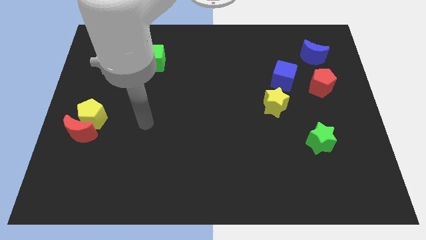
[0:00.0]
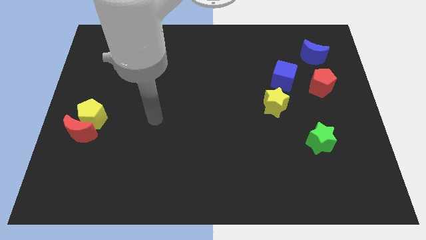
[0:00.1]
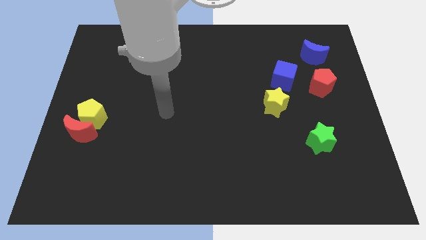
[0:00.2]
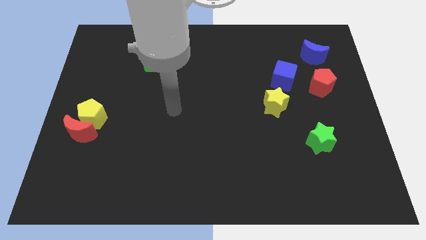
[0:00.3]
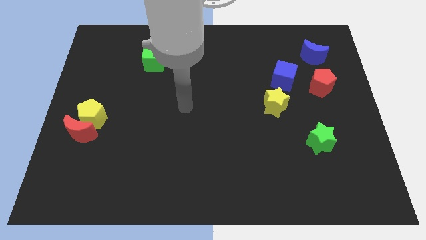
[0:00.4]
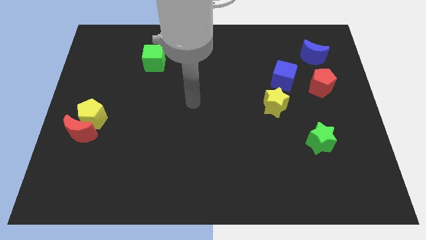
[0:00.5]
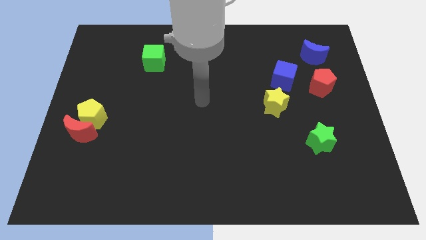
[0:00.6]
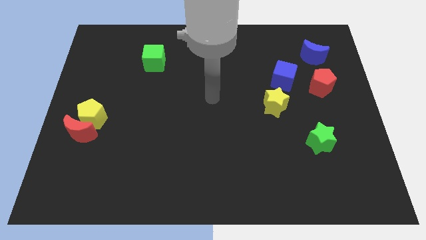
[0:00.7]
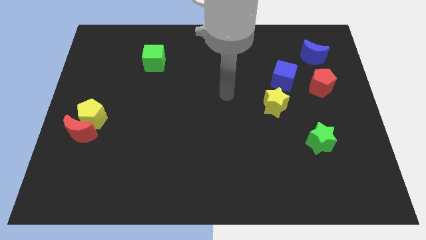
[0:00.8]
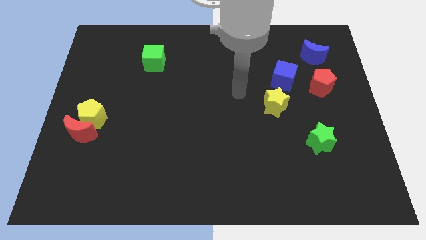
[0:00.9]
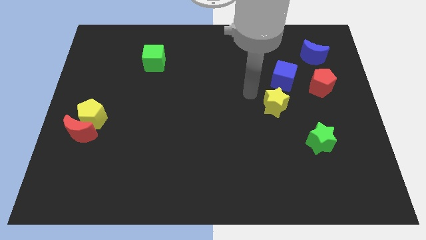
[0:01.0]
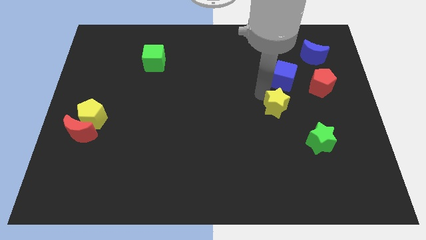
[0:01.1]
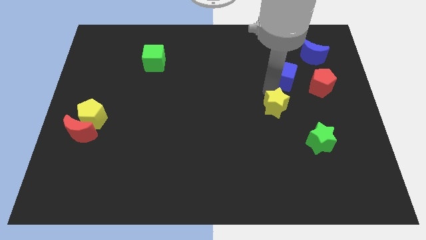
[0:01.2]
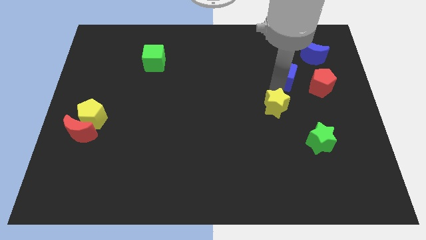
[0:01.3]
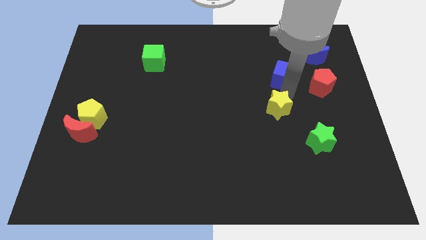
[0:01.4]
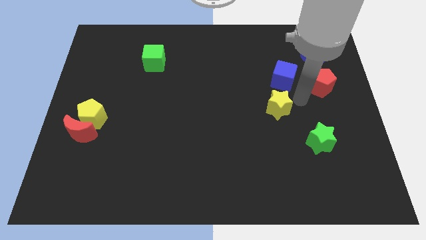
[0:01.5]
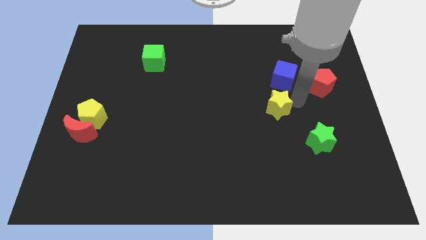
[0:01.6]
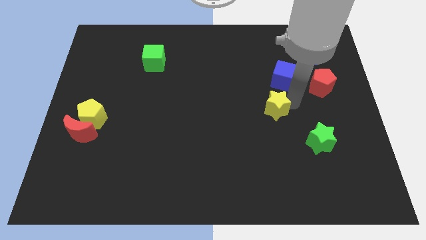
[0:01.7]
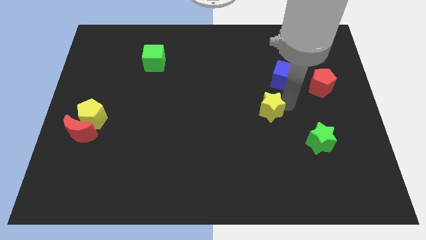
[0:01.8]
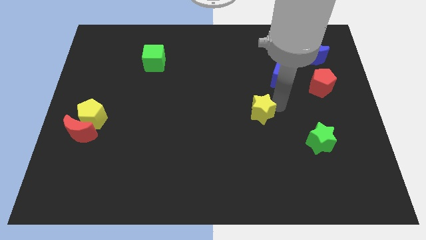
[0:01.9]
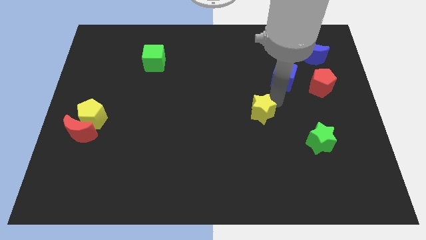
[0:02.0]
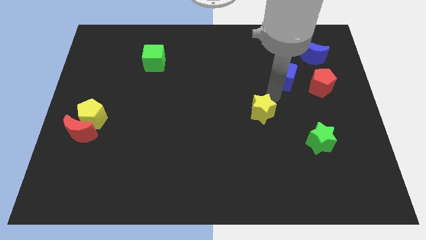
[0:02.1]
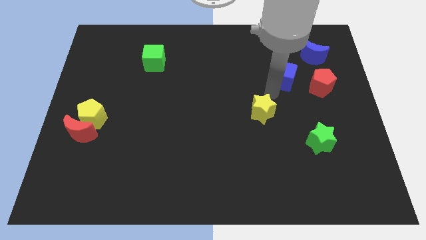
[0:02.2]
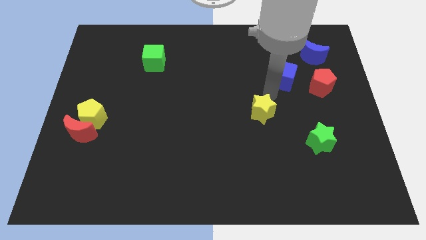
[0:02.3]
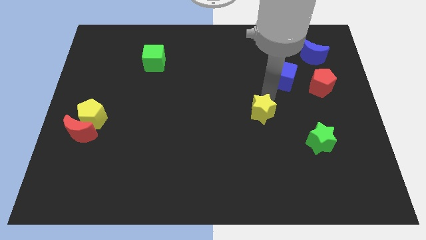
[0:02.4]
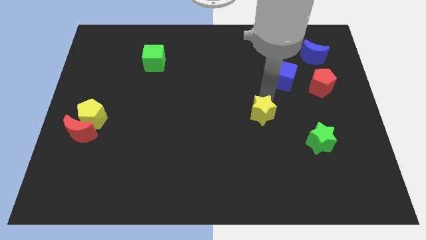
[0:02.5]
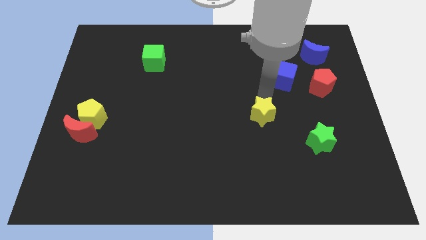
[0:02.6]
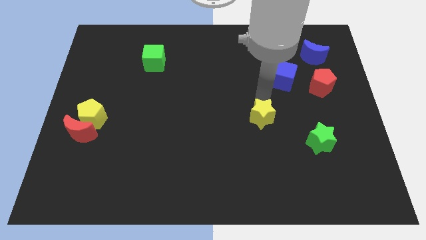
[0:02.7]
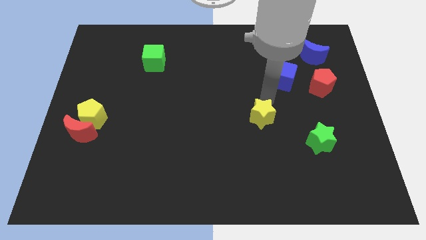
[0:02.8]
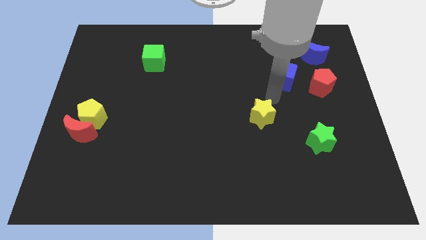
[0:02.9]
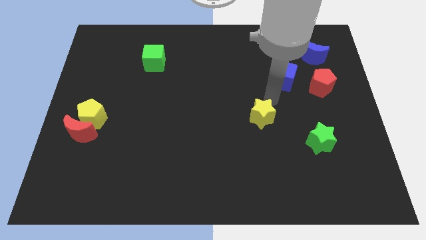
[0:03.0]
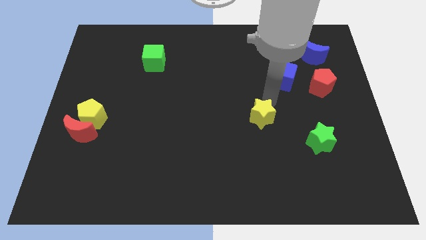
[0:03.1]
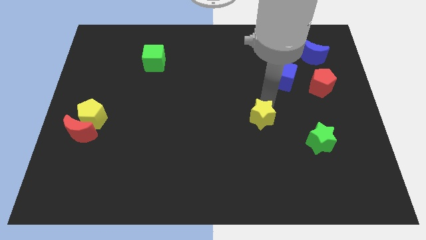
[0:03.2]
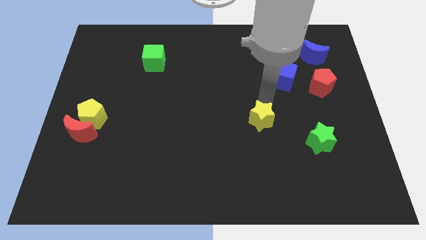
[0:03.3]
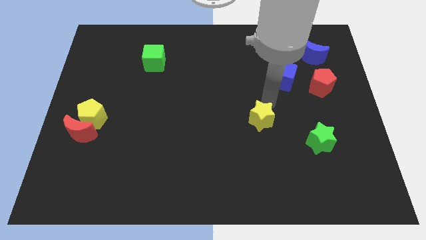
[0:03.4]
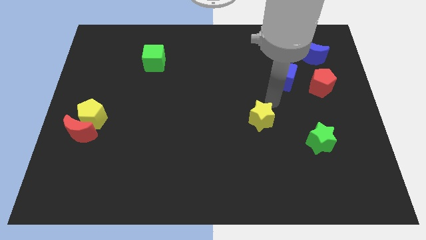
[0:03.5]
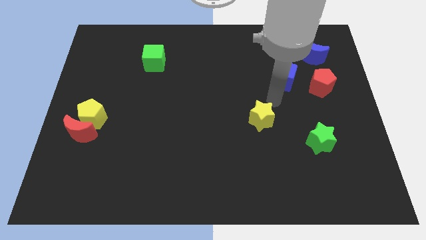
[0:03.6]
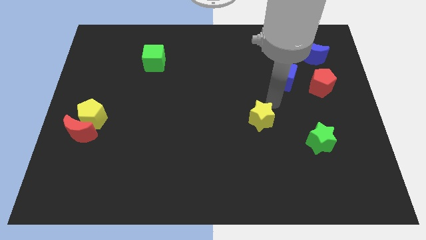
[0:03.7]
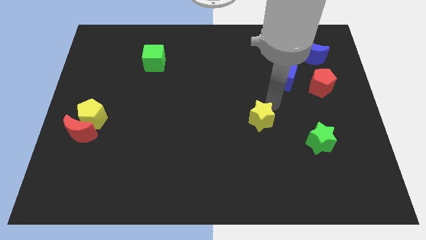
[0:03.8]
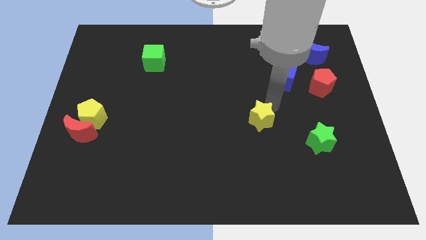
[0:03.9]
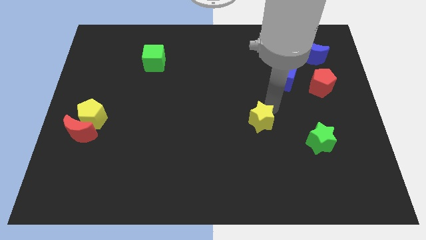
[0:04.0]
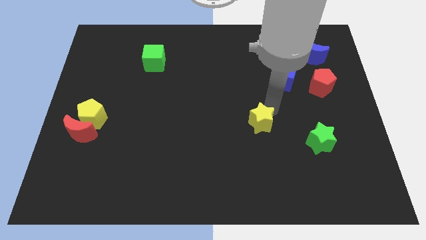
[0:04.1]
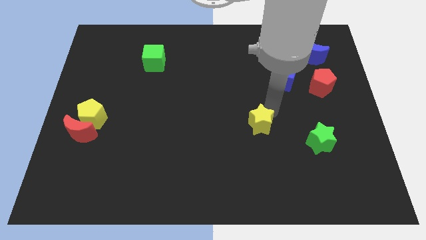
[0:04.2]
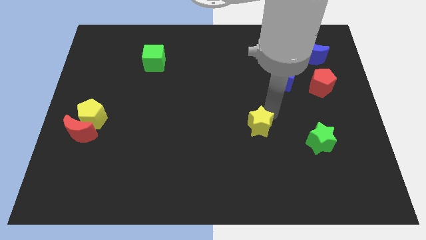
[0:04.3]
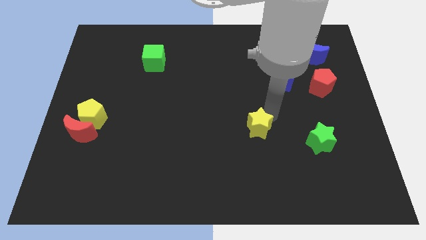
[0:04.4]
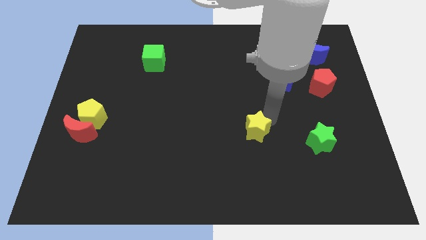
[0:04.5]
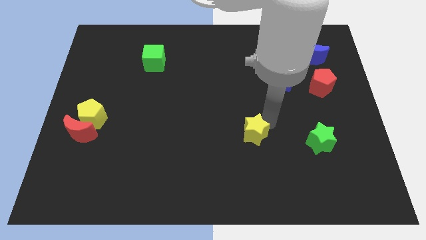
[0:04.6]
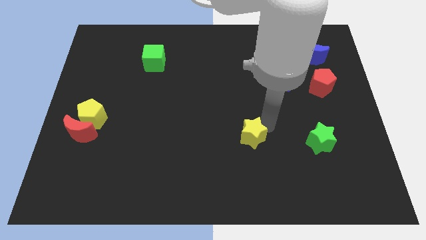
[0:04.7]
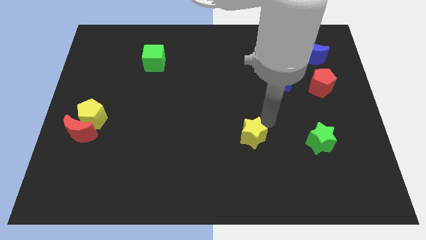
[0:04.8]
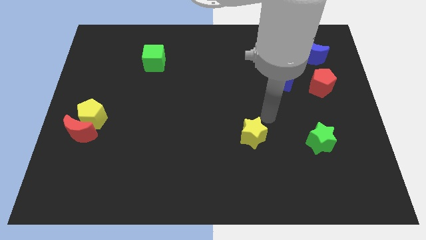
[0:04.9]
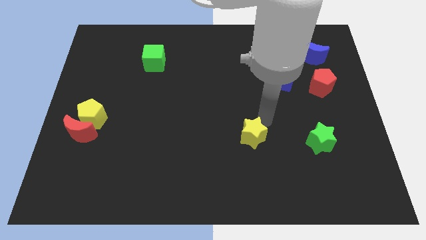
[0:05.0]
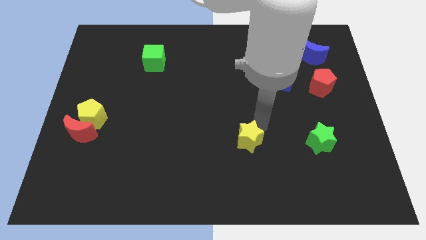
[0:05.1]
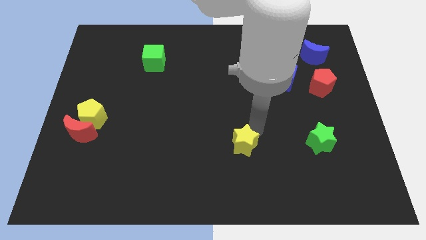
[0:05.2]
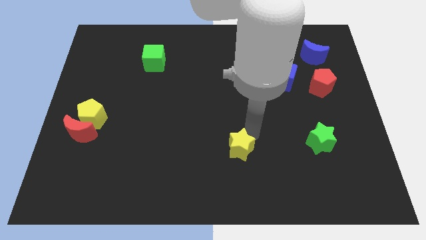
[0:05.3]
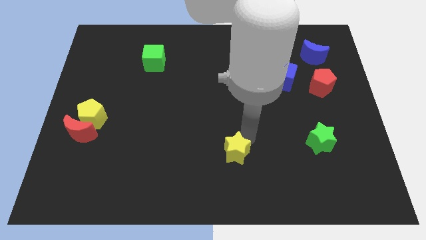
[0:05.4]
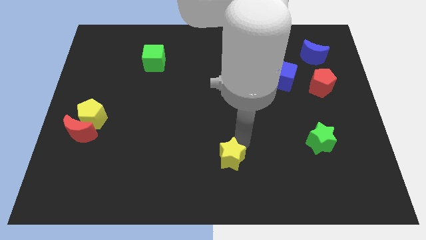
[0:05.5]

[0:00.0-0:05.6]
move the yellow star to the bottom

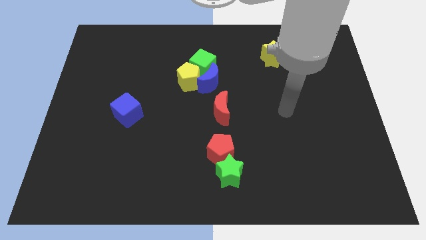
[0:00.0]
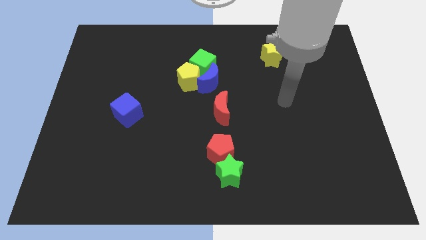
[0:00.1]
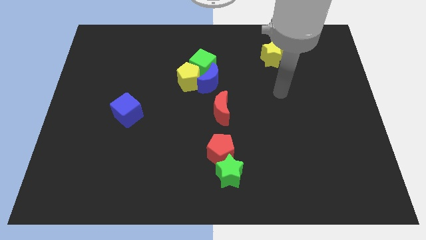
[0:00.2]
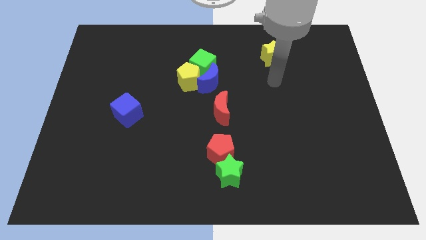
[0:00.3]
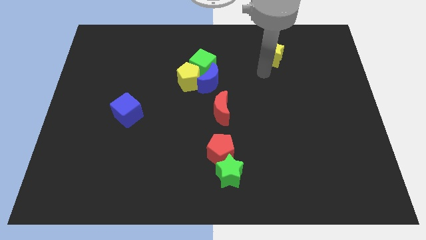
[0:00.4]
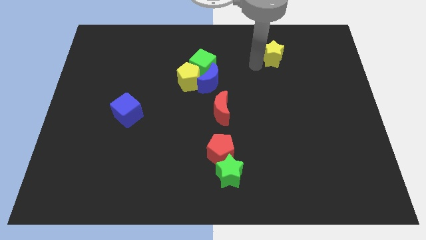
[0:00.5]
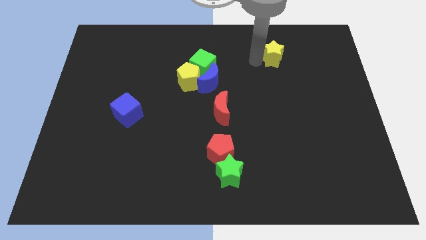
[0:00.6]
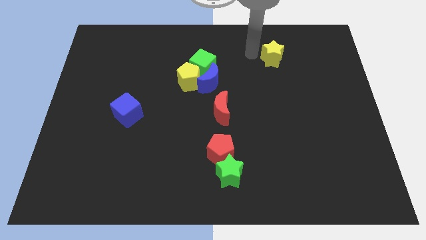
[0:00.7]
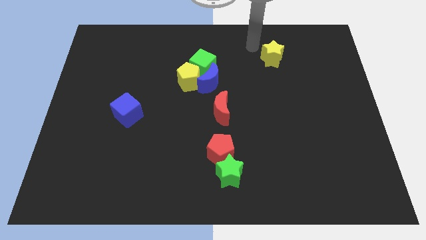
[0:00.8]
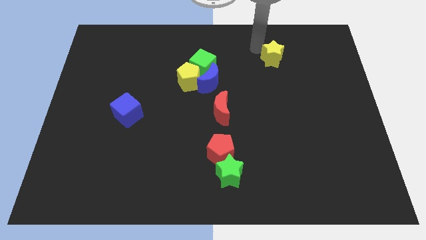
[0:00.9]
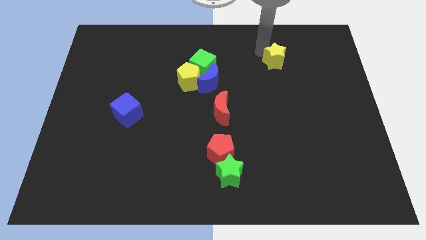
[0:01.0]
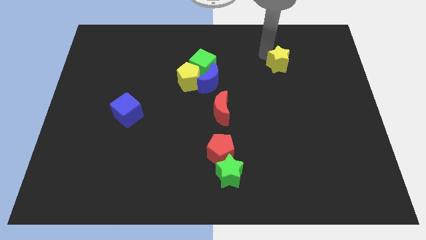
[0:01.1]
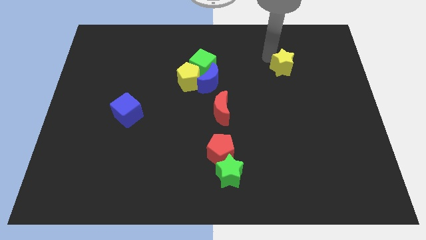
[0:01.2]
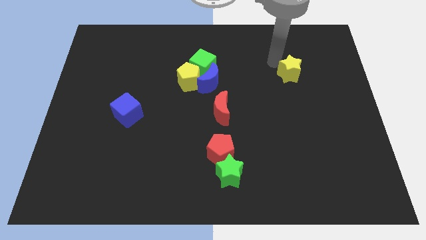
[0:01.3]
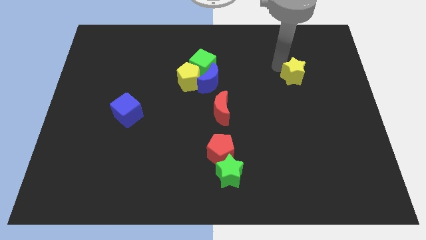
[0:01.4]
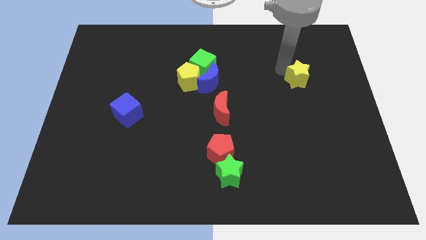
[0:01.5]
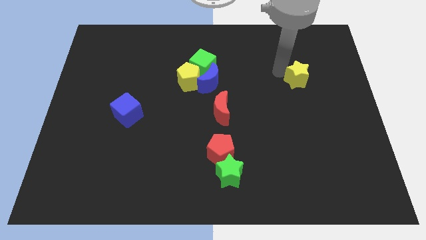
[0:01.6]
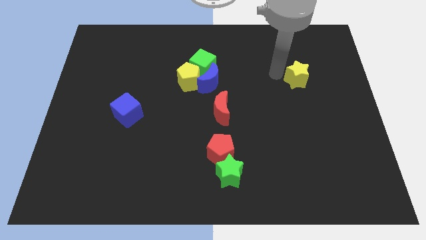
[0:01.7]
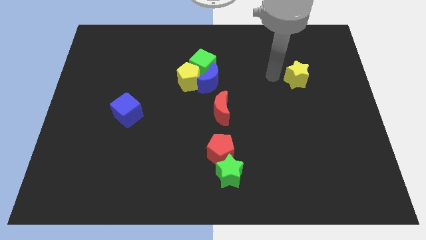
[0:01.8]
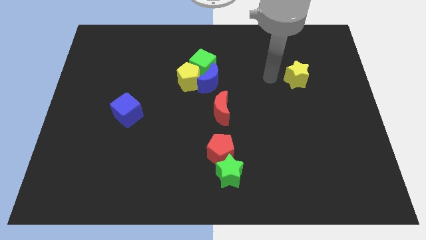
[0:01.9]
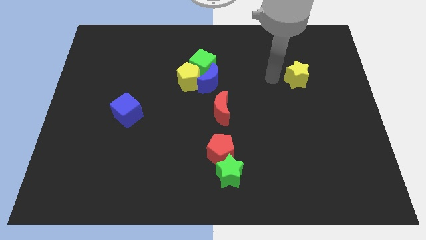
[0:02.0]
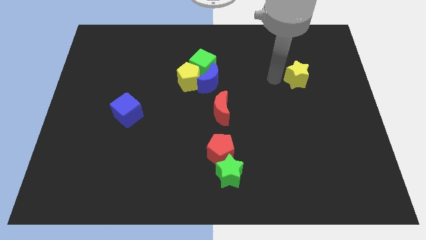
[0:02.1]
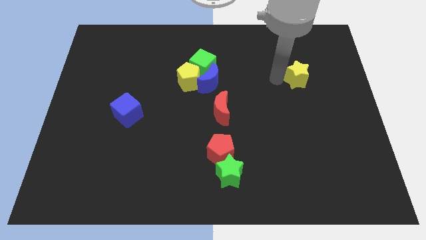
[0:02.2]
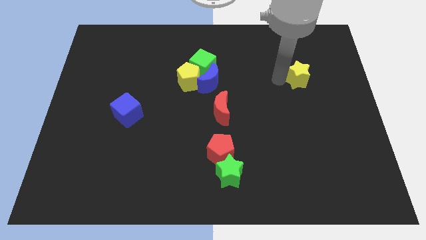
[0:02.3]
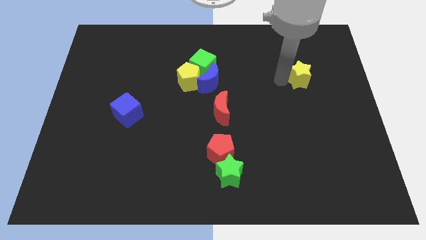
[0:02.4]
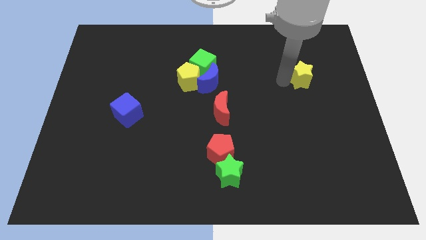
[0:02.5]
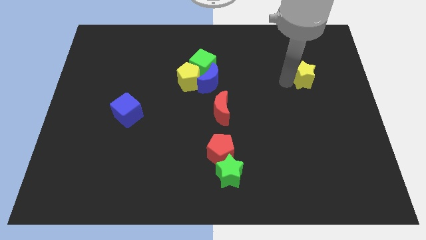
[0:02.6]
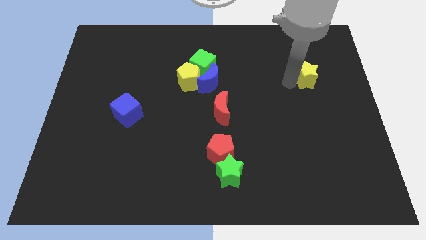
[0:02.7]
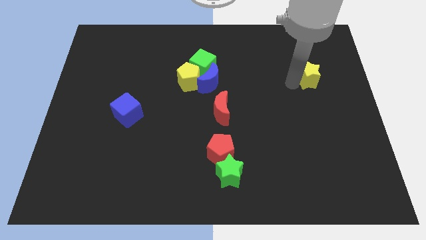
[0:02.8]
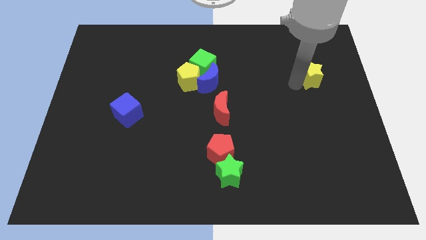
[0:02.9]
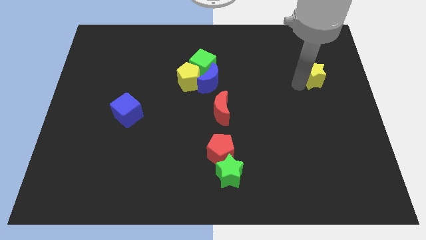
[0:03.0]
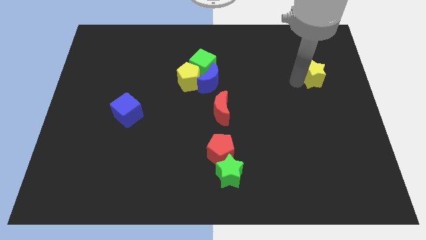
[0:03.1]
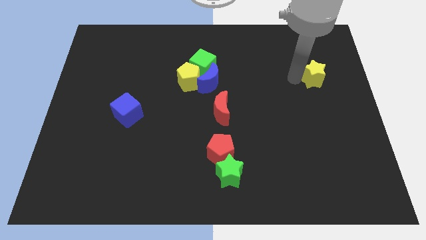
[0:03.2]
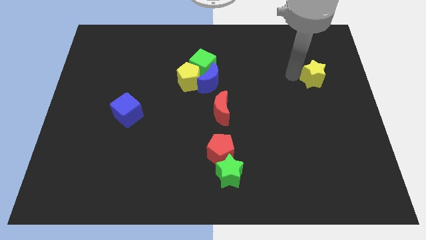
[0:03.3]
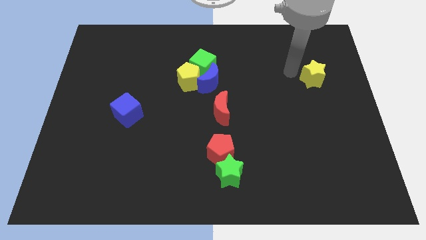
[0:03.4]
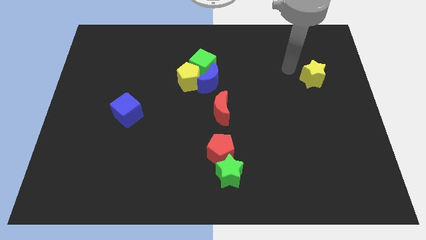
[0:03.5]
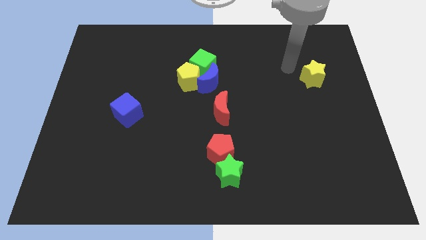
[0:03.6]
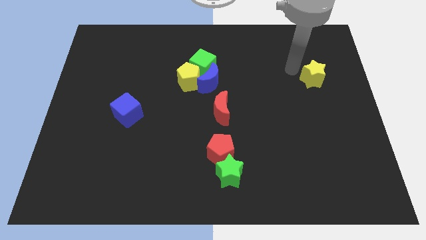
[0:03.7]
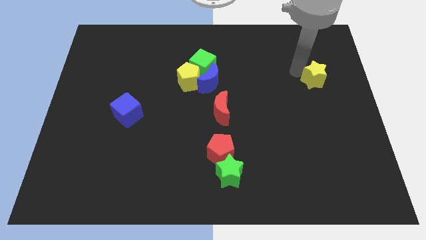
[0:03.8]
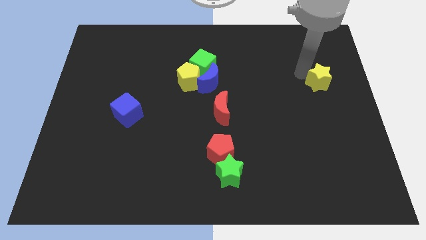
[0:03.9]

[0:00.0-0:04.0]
slide the yellow star to the right side
